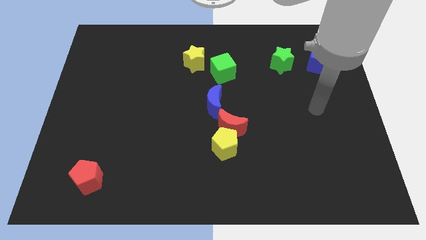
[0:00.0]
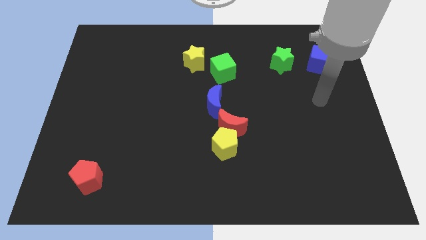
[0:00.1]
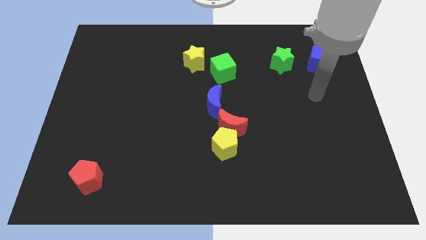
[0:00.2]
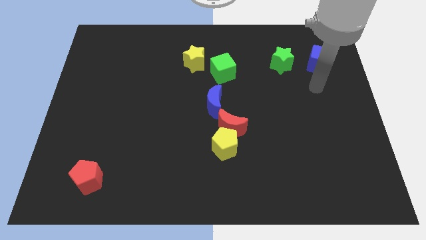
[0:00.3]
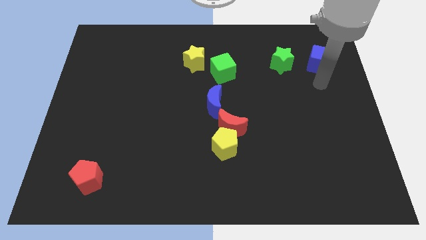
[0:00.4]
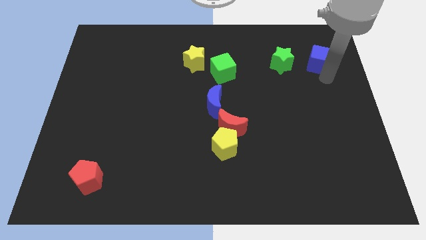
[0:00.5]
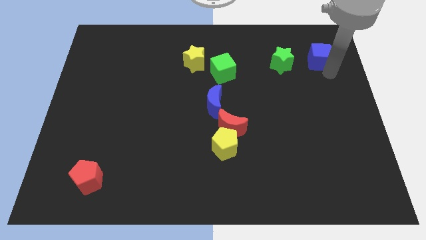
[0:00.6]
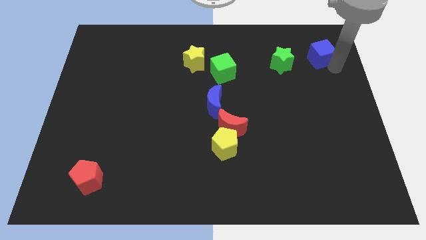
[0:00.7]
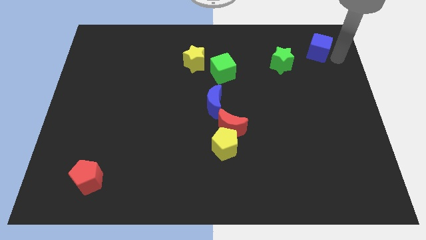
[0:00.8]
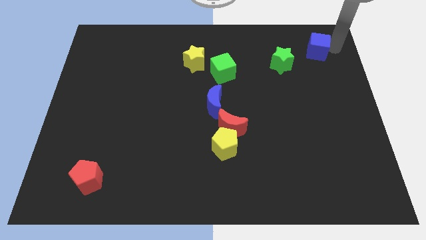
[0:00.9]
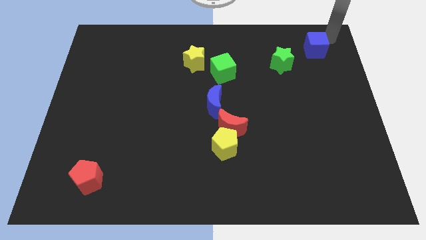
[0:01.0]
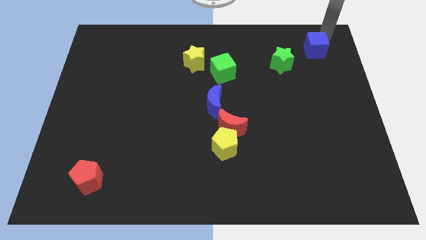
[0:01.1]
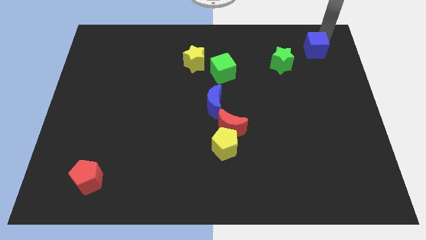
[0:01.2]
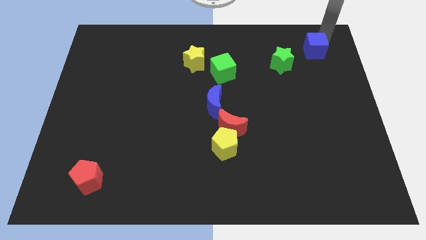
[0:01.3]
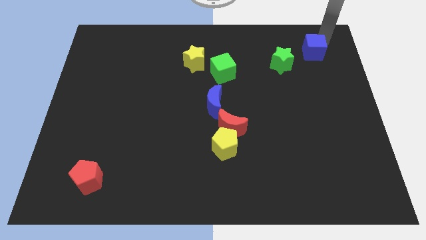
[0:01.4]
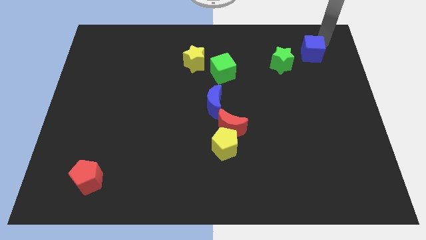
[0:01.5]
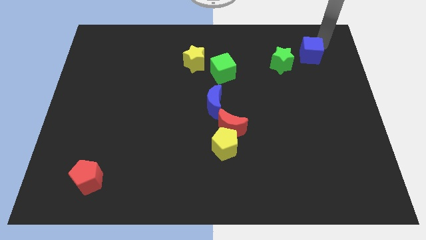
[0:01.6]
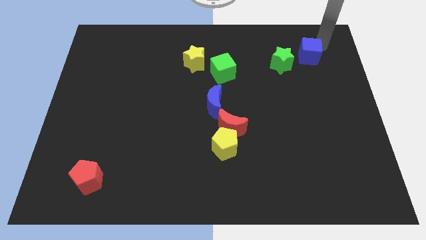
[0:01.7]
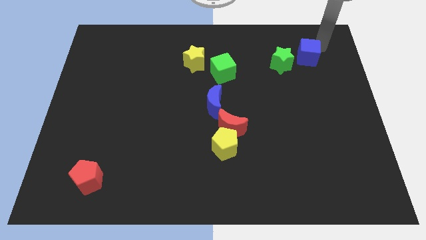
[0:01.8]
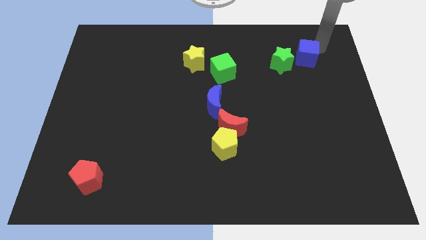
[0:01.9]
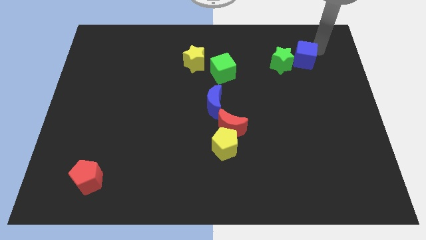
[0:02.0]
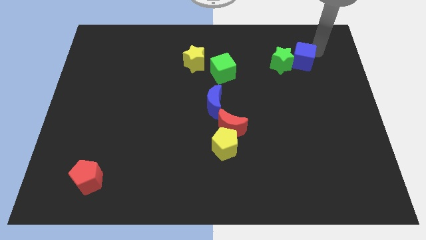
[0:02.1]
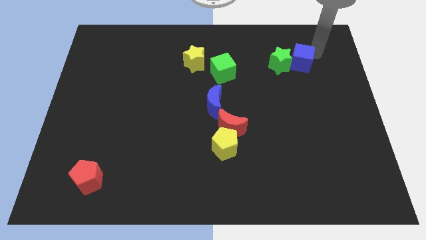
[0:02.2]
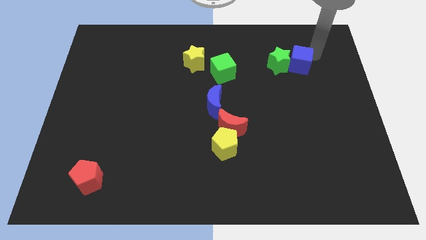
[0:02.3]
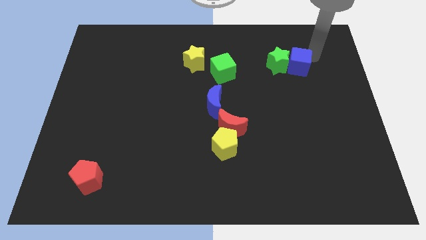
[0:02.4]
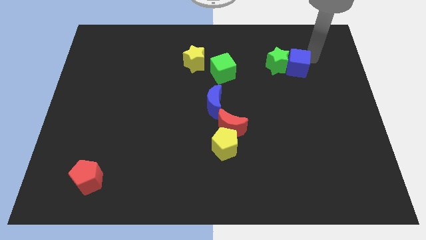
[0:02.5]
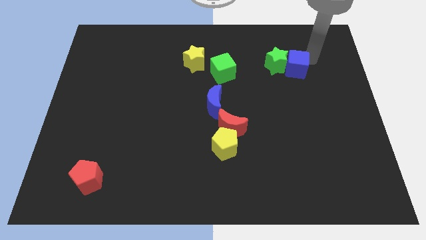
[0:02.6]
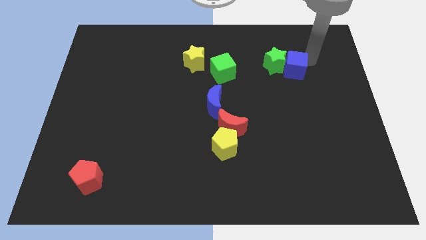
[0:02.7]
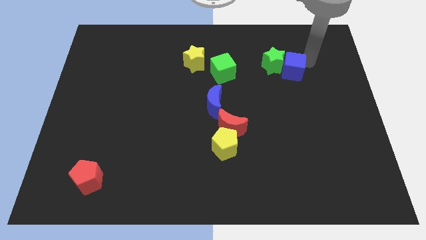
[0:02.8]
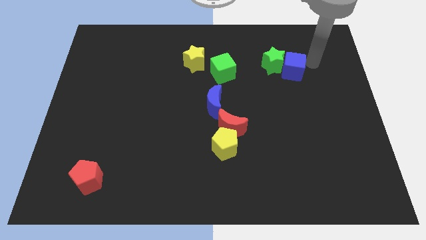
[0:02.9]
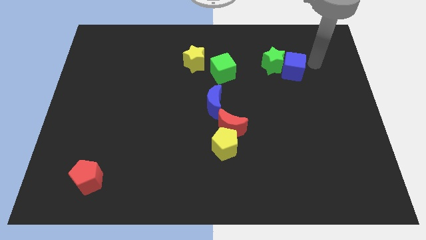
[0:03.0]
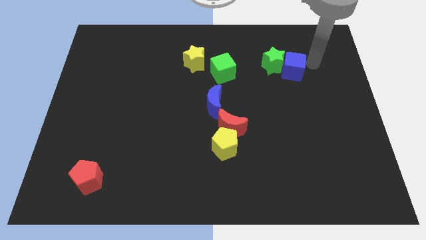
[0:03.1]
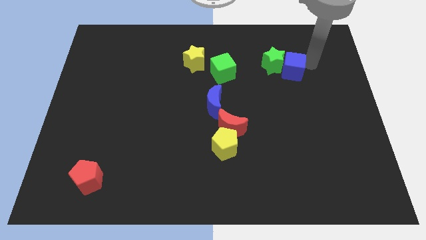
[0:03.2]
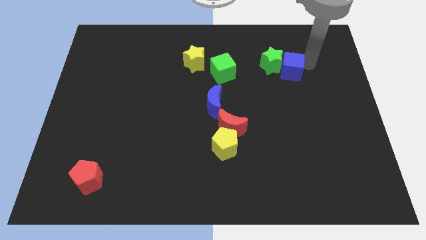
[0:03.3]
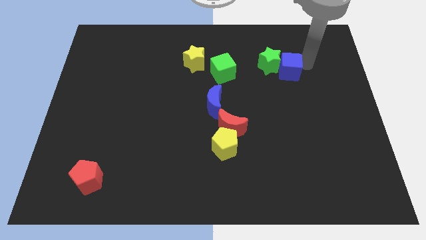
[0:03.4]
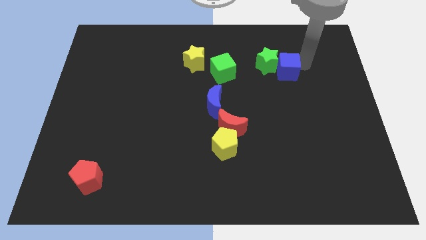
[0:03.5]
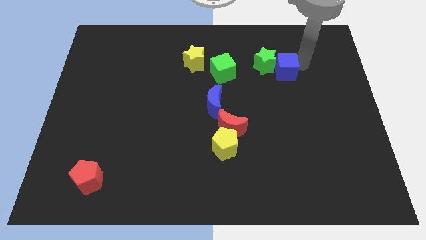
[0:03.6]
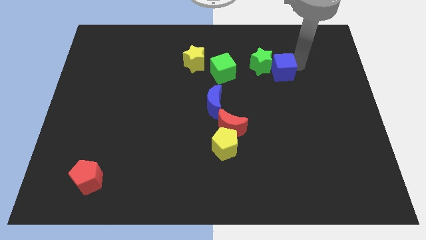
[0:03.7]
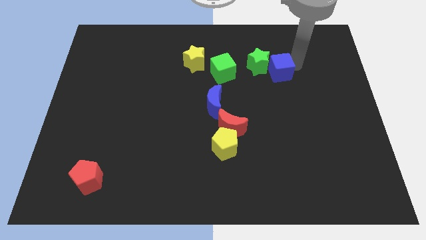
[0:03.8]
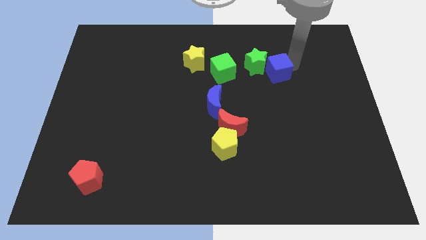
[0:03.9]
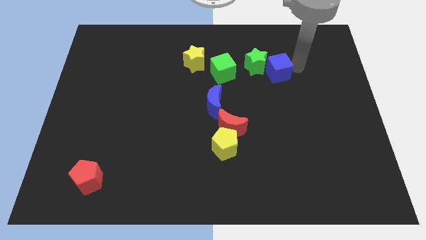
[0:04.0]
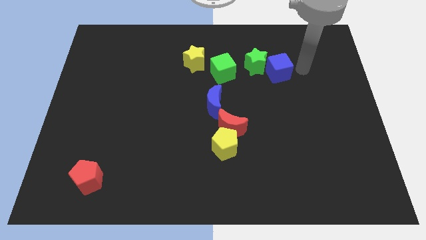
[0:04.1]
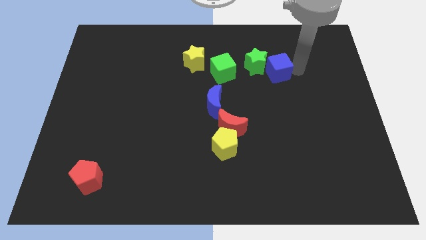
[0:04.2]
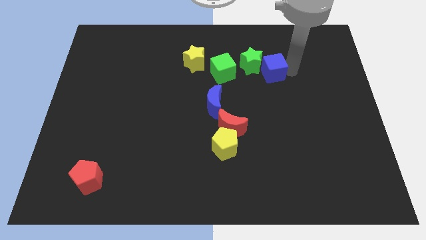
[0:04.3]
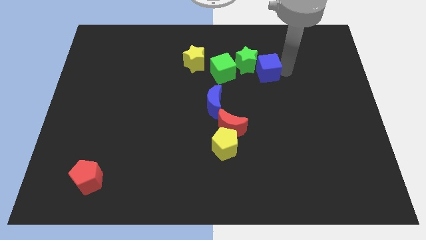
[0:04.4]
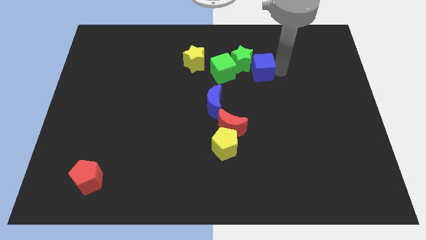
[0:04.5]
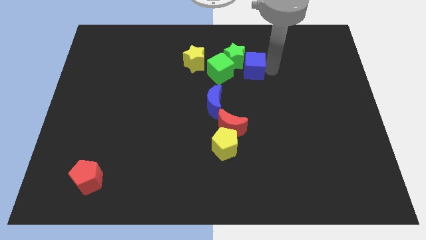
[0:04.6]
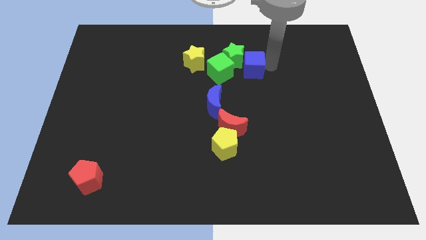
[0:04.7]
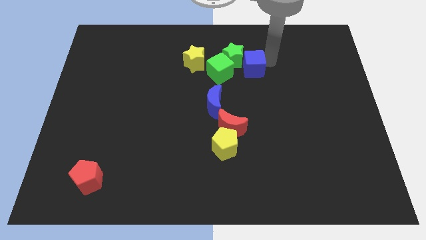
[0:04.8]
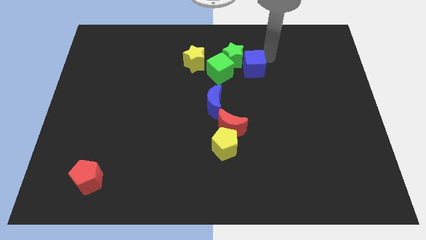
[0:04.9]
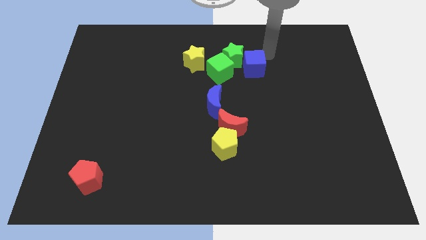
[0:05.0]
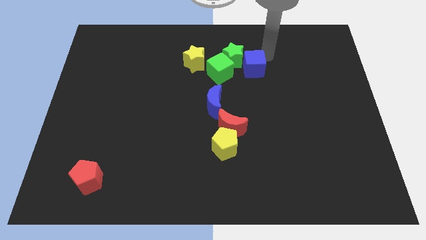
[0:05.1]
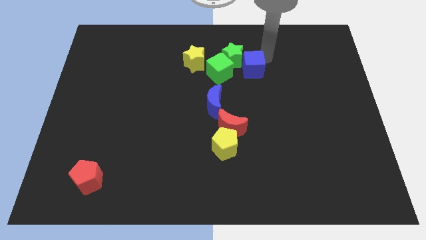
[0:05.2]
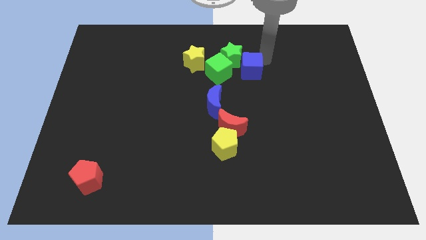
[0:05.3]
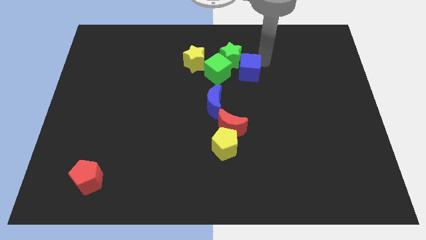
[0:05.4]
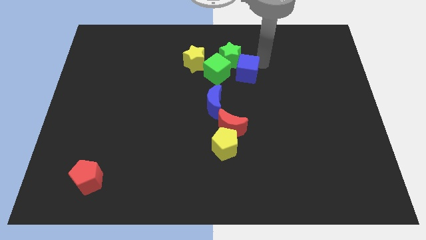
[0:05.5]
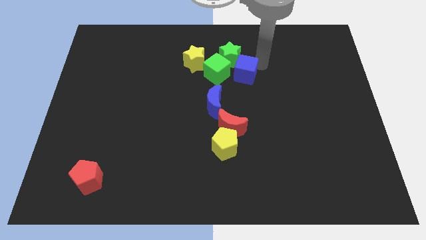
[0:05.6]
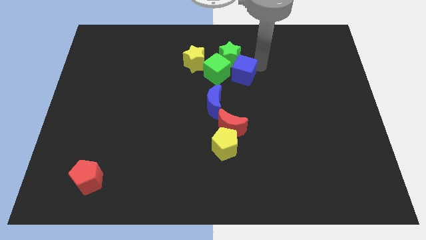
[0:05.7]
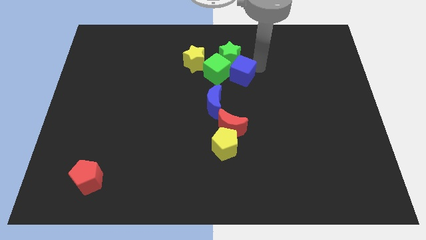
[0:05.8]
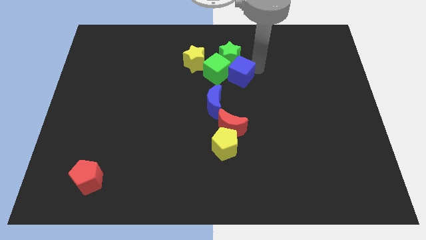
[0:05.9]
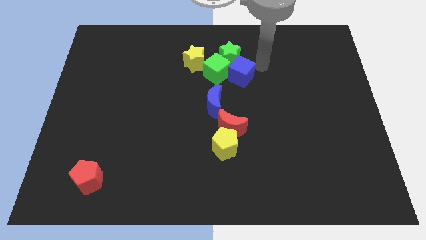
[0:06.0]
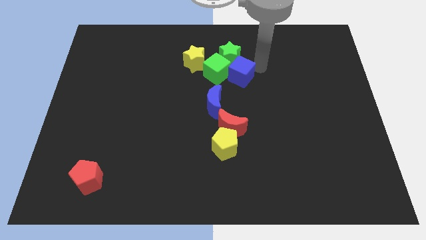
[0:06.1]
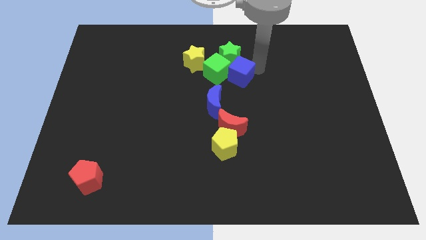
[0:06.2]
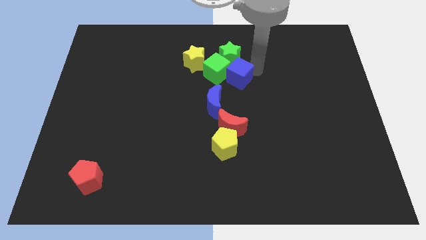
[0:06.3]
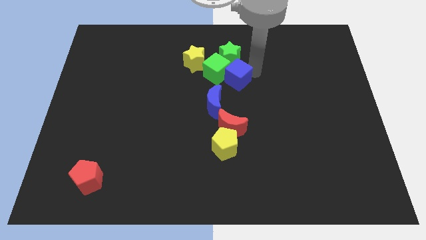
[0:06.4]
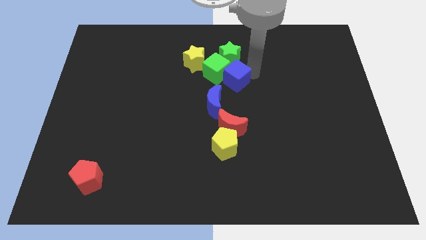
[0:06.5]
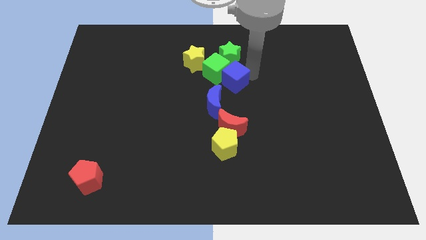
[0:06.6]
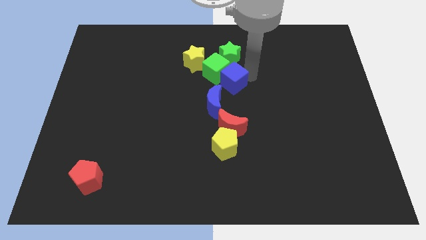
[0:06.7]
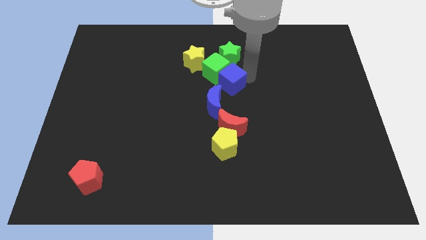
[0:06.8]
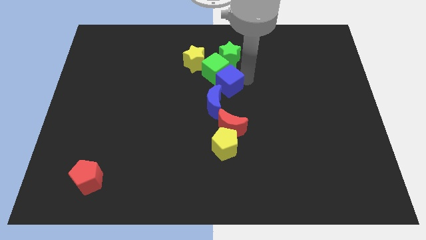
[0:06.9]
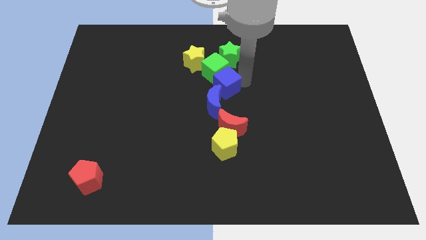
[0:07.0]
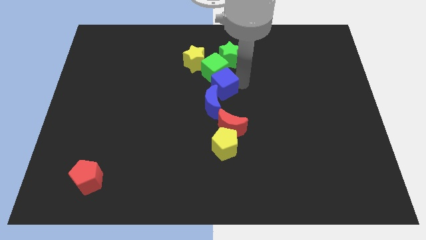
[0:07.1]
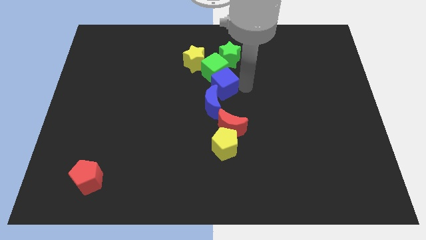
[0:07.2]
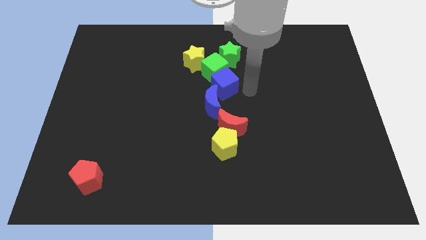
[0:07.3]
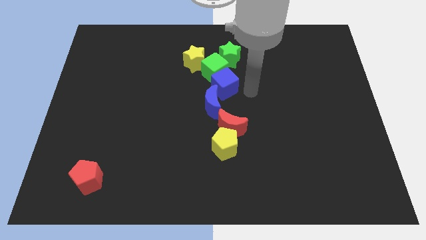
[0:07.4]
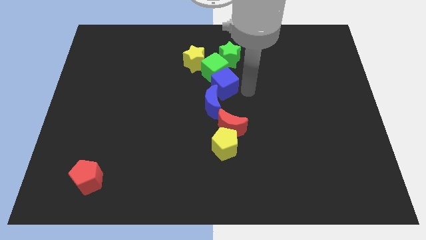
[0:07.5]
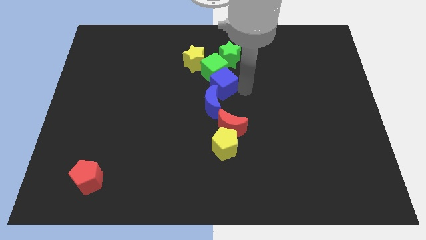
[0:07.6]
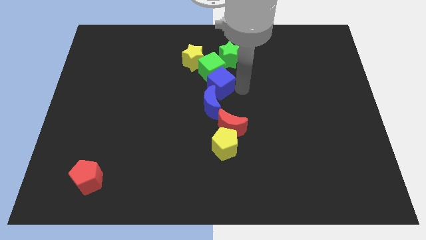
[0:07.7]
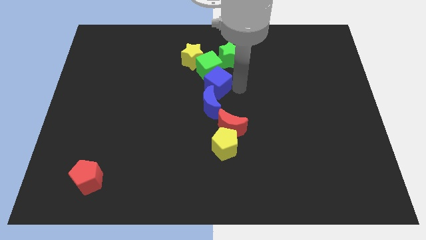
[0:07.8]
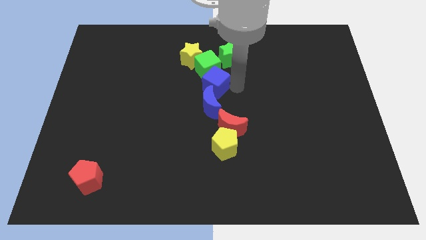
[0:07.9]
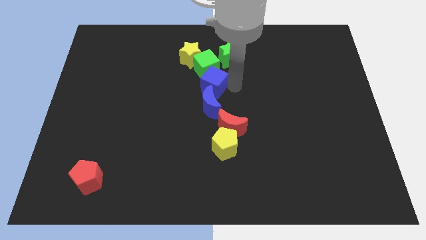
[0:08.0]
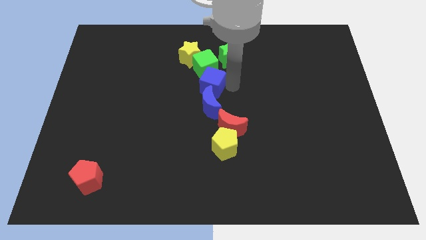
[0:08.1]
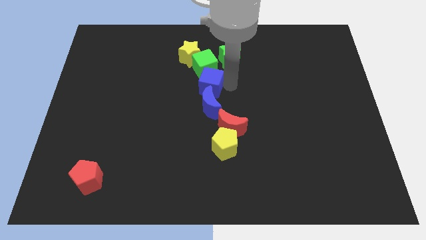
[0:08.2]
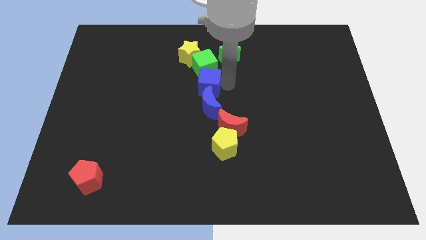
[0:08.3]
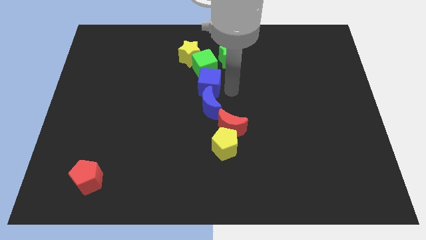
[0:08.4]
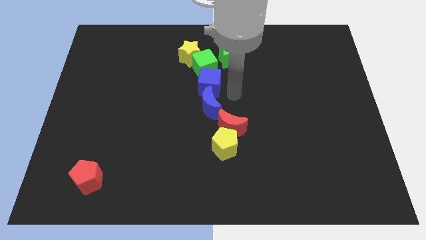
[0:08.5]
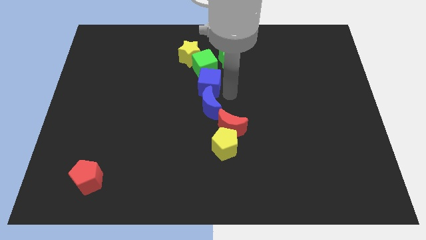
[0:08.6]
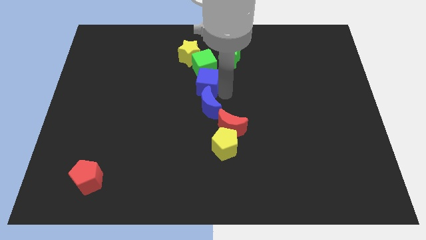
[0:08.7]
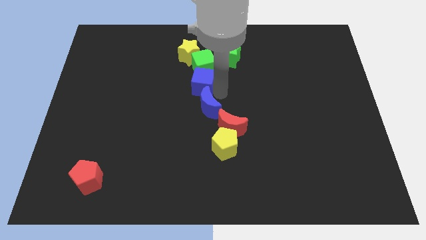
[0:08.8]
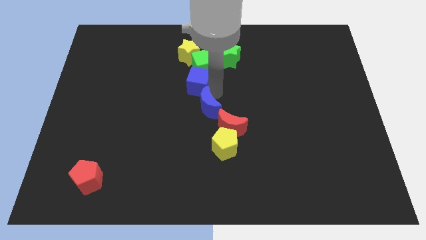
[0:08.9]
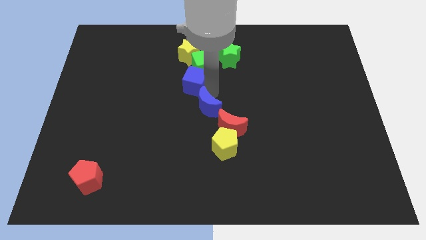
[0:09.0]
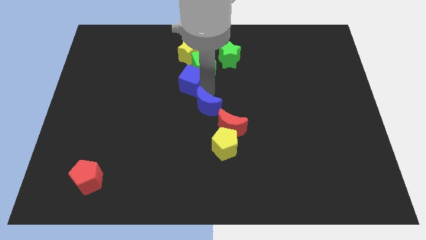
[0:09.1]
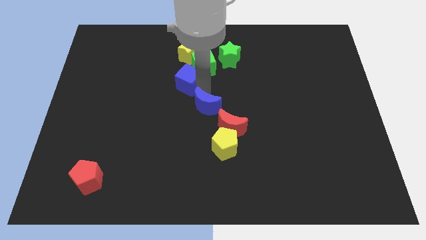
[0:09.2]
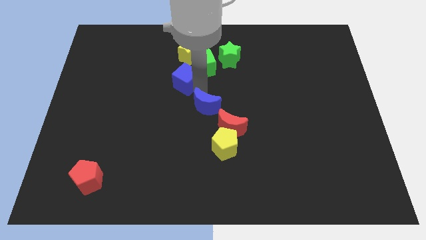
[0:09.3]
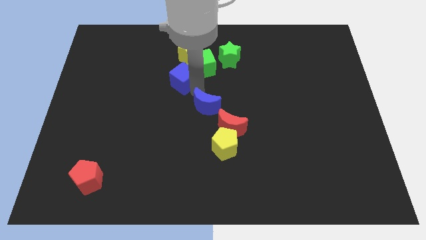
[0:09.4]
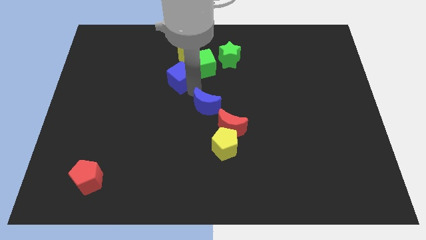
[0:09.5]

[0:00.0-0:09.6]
slide the blue cube to the bottom left of the yellow star
